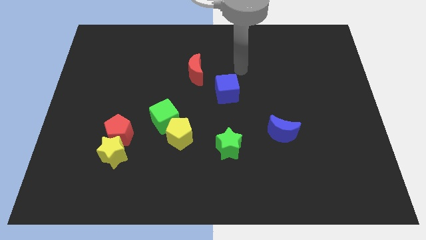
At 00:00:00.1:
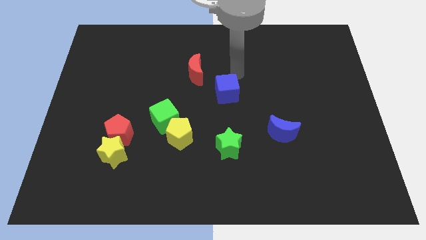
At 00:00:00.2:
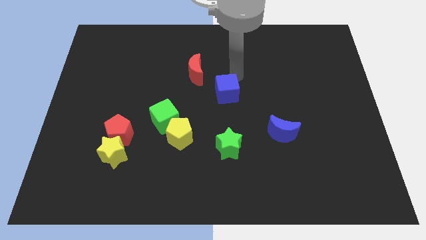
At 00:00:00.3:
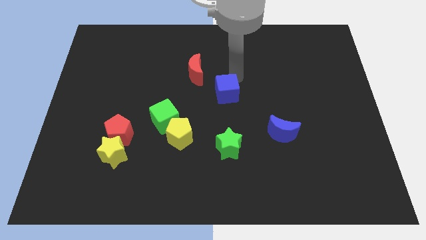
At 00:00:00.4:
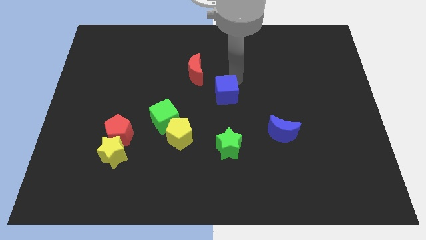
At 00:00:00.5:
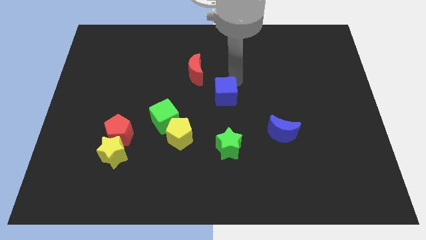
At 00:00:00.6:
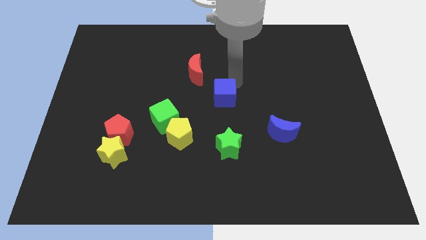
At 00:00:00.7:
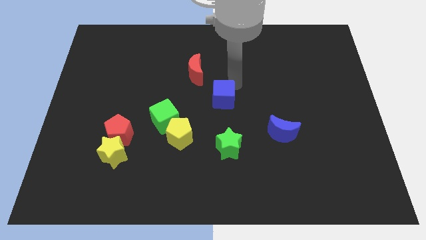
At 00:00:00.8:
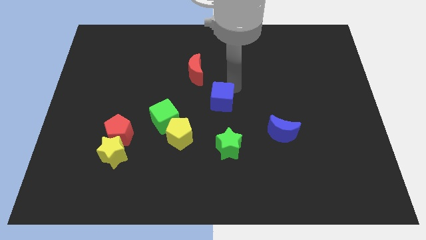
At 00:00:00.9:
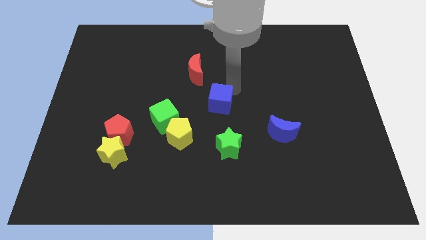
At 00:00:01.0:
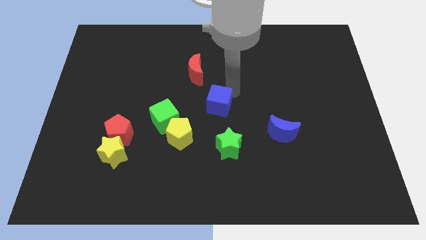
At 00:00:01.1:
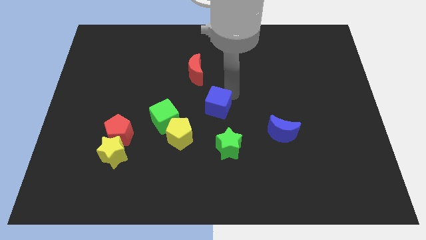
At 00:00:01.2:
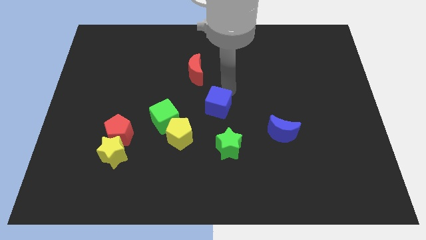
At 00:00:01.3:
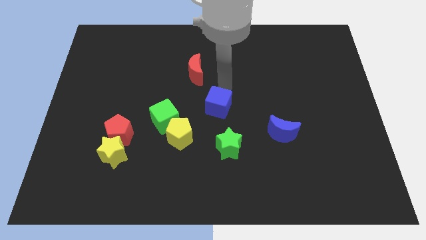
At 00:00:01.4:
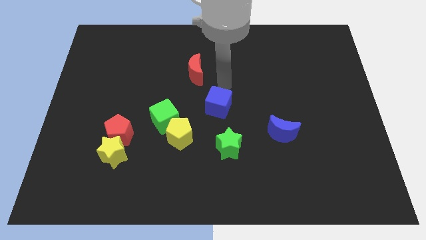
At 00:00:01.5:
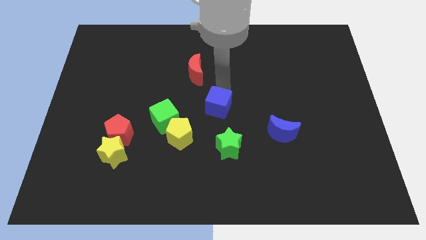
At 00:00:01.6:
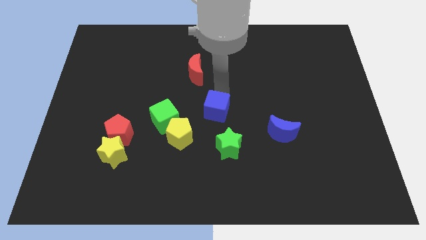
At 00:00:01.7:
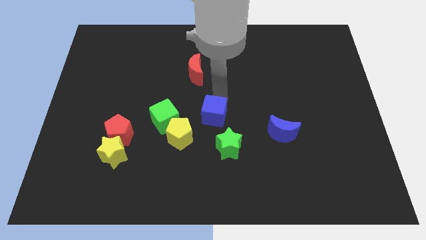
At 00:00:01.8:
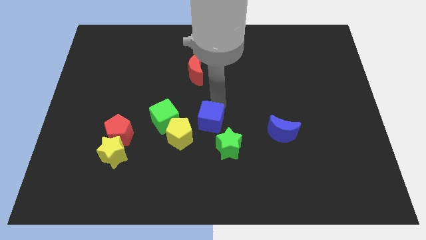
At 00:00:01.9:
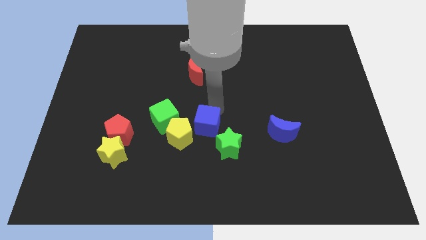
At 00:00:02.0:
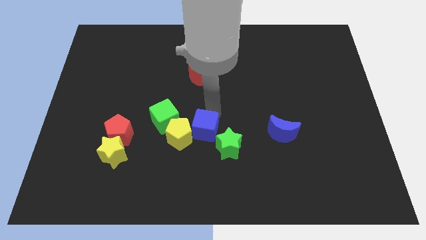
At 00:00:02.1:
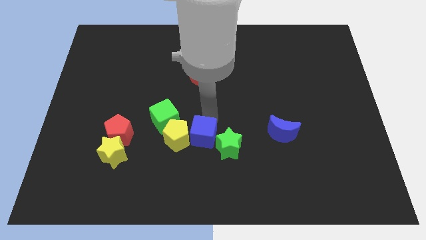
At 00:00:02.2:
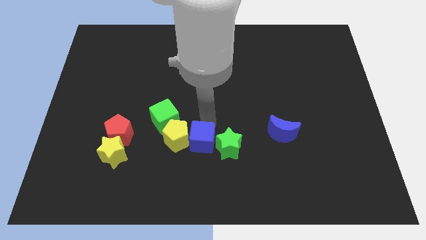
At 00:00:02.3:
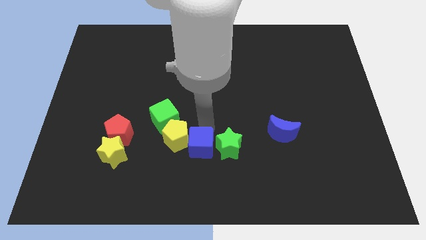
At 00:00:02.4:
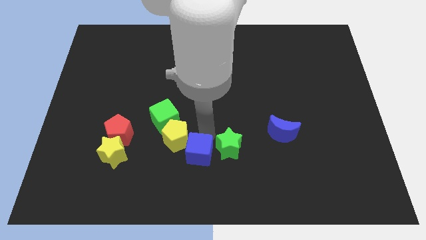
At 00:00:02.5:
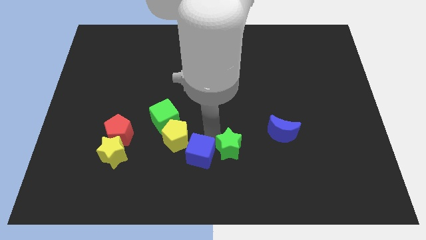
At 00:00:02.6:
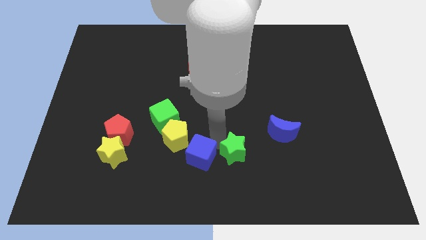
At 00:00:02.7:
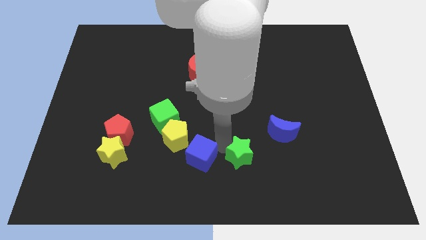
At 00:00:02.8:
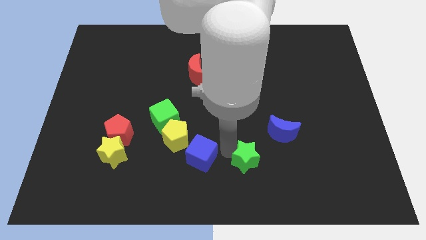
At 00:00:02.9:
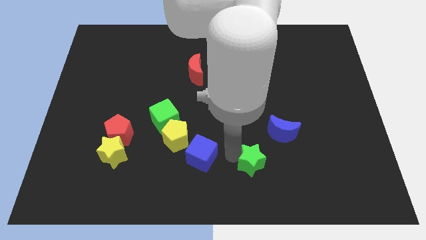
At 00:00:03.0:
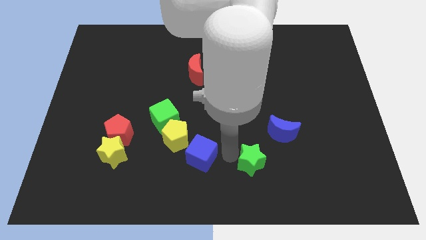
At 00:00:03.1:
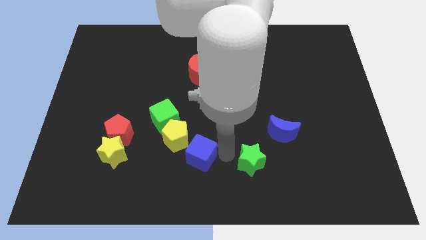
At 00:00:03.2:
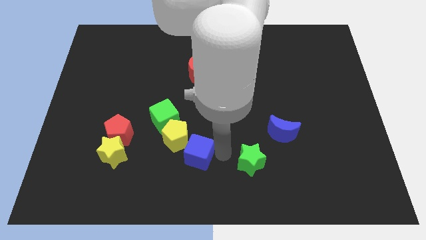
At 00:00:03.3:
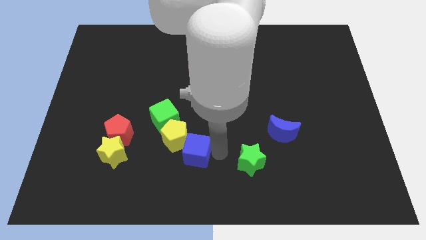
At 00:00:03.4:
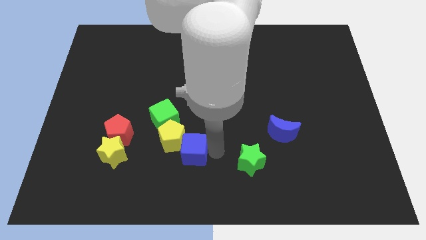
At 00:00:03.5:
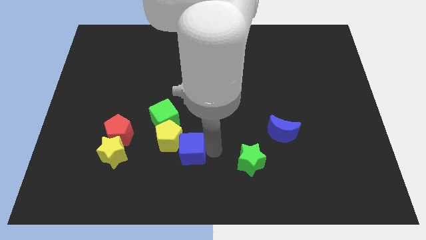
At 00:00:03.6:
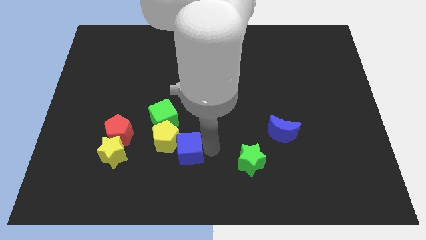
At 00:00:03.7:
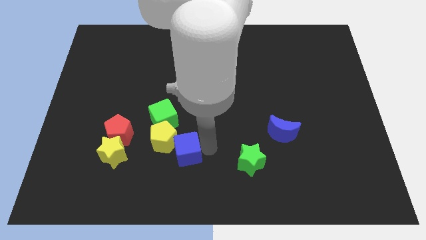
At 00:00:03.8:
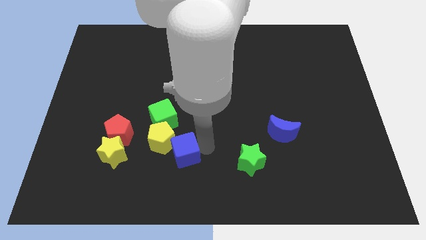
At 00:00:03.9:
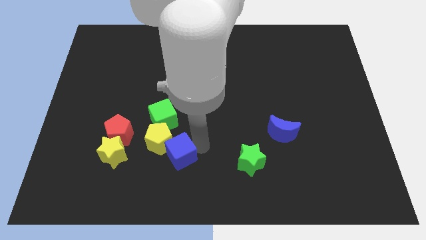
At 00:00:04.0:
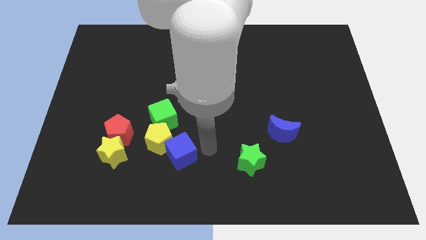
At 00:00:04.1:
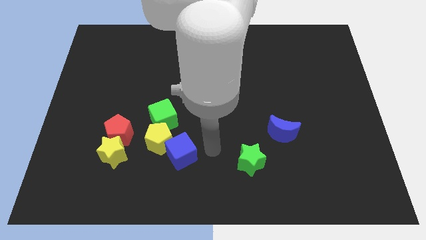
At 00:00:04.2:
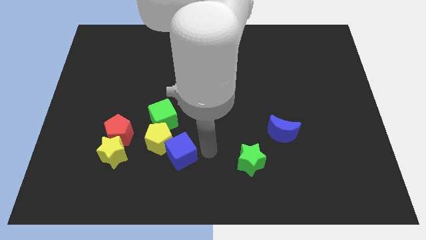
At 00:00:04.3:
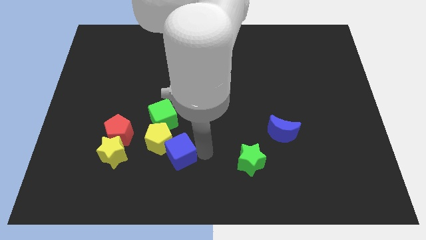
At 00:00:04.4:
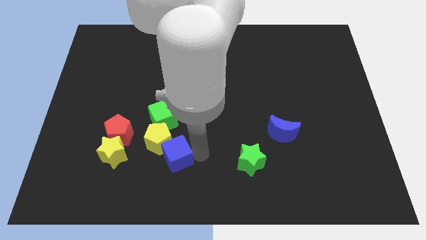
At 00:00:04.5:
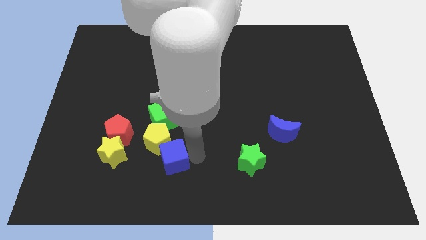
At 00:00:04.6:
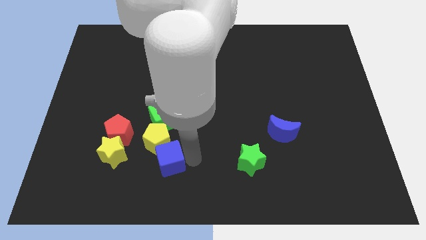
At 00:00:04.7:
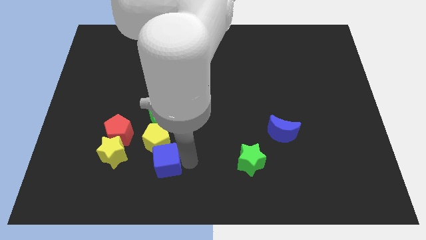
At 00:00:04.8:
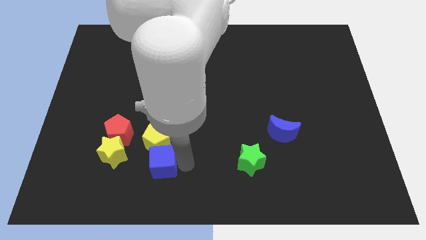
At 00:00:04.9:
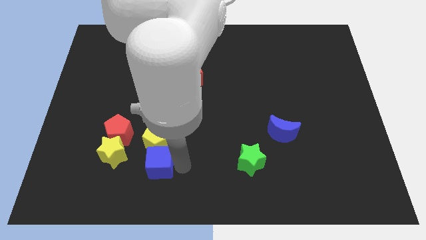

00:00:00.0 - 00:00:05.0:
slide the blue cube to the bottom left of the yellow pentagon

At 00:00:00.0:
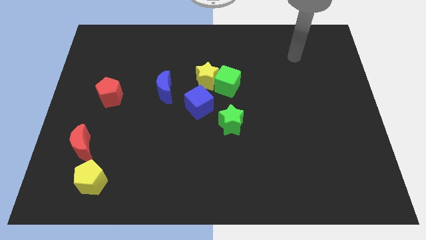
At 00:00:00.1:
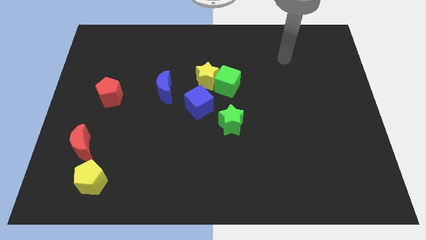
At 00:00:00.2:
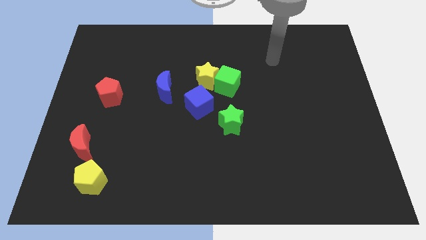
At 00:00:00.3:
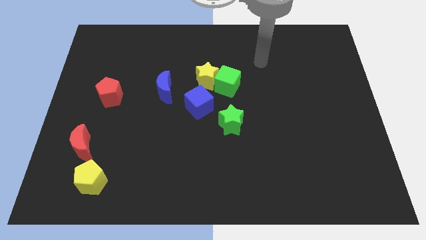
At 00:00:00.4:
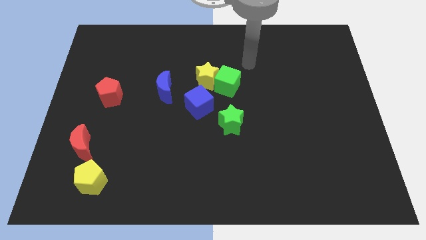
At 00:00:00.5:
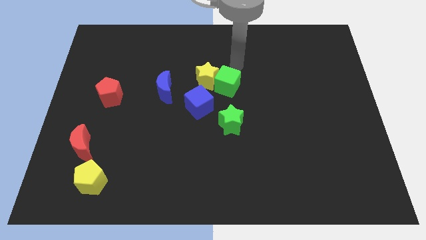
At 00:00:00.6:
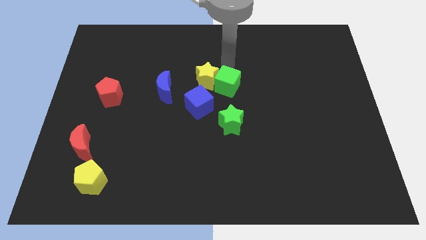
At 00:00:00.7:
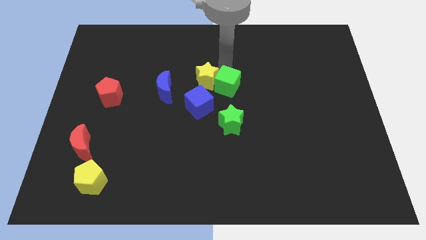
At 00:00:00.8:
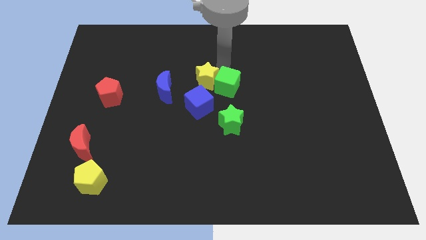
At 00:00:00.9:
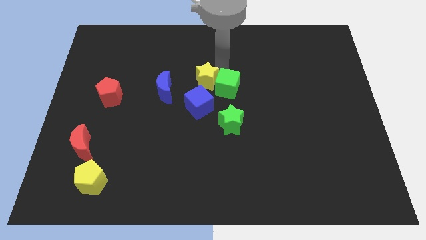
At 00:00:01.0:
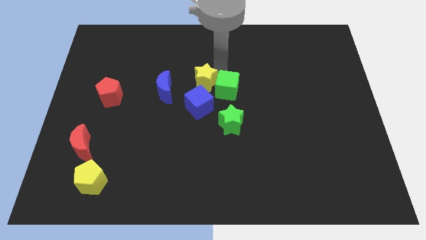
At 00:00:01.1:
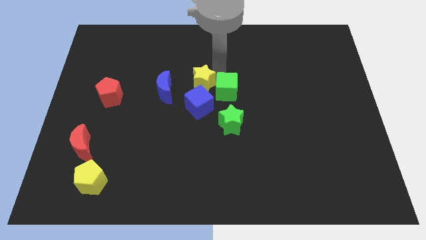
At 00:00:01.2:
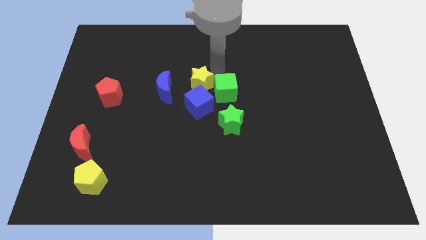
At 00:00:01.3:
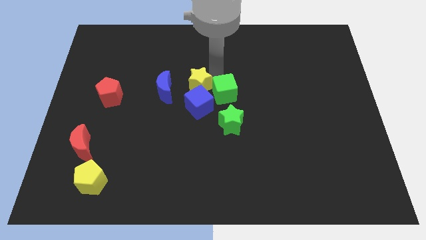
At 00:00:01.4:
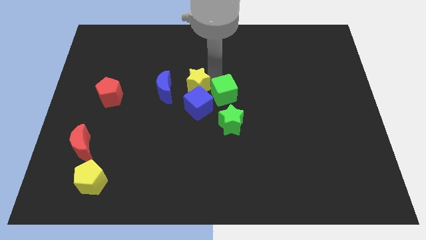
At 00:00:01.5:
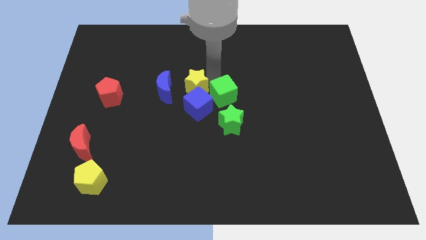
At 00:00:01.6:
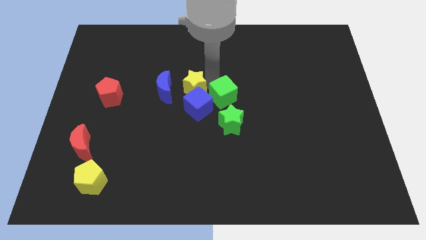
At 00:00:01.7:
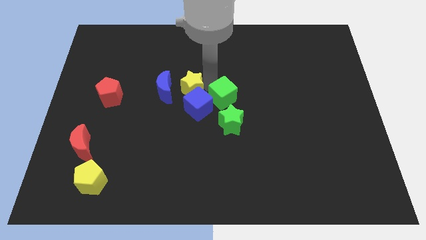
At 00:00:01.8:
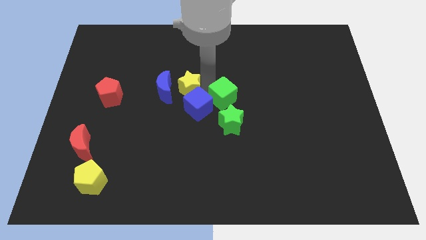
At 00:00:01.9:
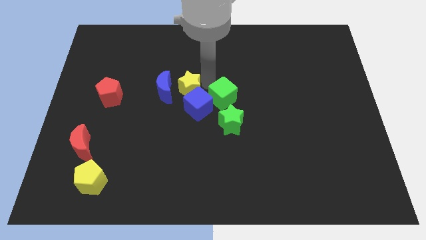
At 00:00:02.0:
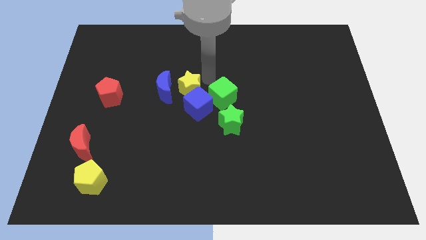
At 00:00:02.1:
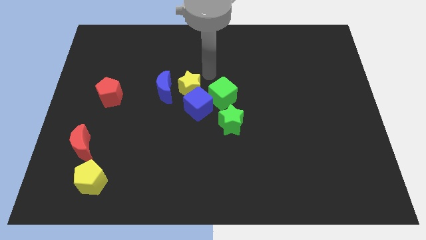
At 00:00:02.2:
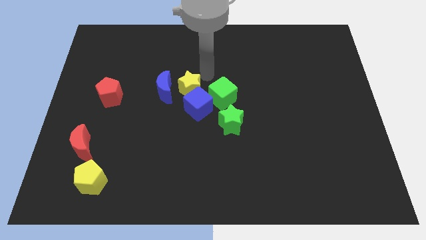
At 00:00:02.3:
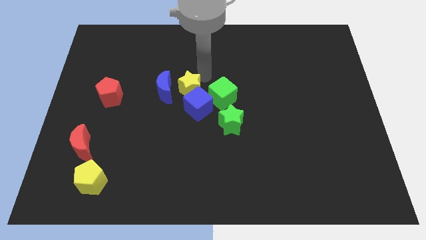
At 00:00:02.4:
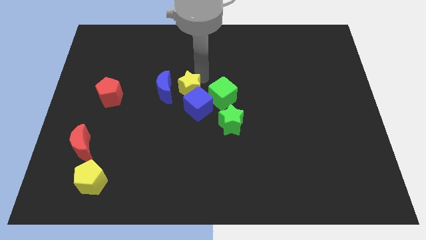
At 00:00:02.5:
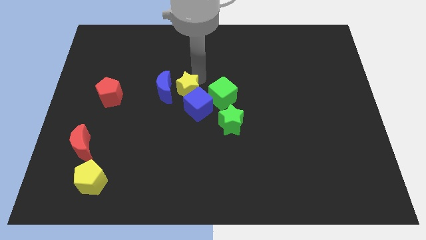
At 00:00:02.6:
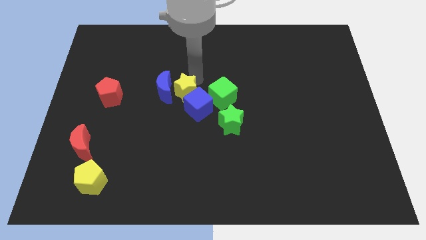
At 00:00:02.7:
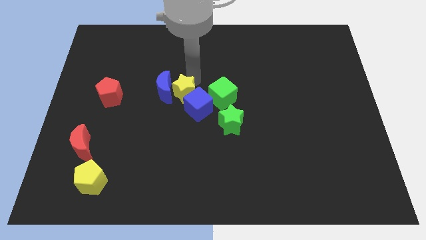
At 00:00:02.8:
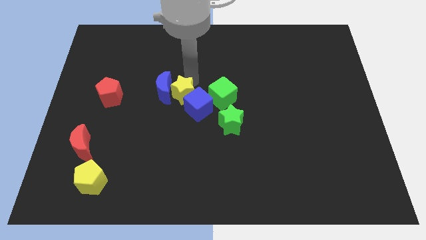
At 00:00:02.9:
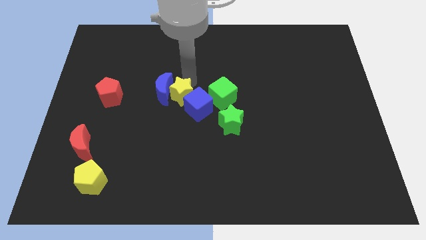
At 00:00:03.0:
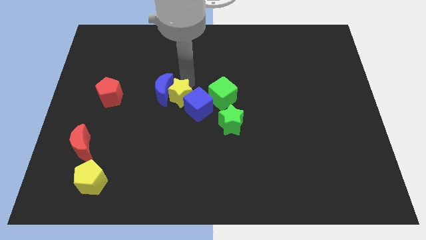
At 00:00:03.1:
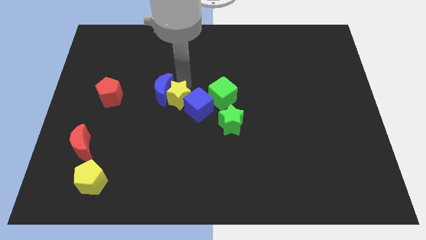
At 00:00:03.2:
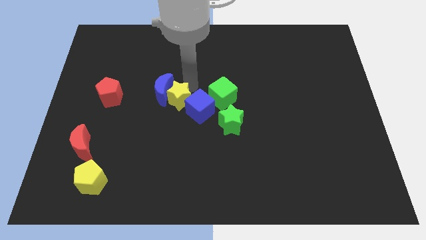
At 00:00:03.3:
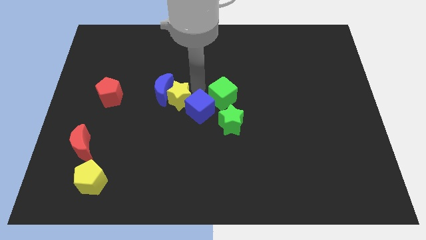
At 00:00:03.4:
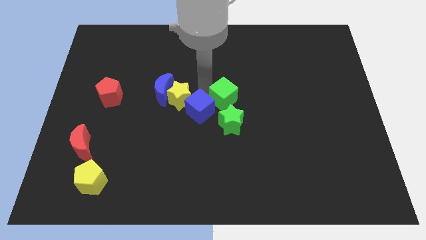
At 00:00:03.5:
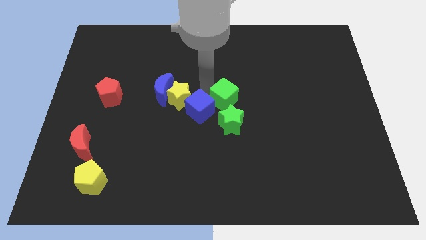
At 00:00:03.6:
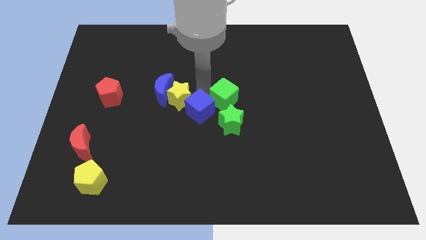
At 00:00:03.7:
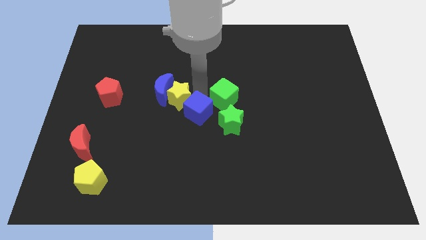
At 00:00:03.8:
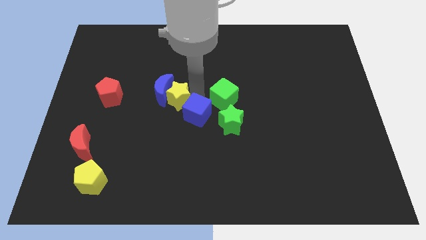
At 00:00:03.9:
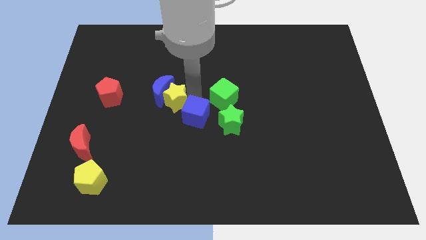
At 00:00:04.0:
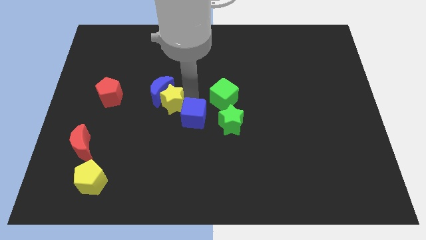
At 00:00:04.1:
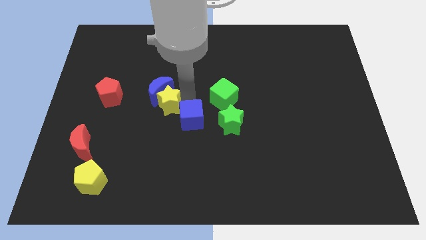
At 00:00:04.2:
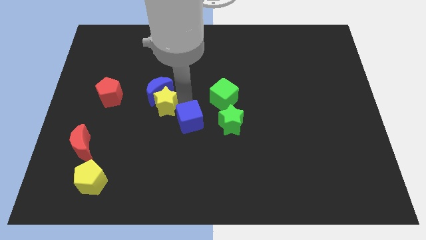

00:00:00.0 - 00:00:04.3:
put the yellow star to the bottom left of the blue moon
